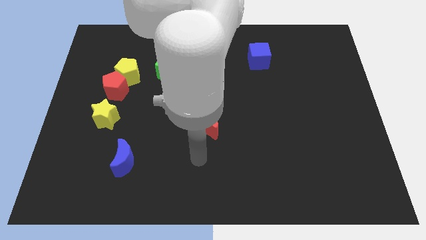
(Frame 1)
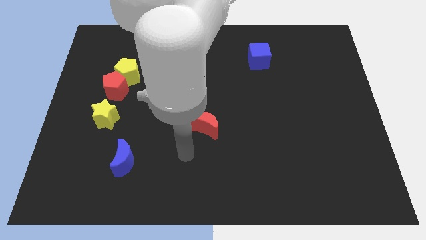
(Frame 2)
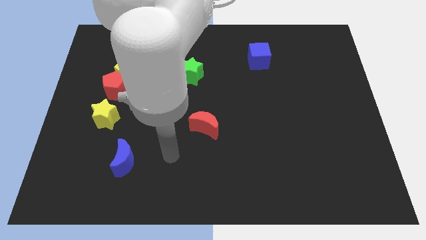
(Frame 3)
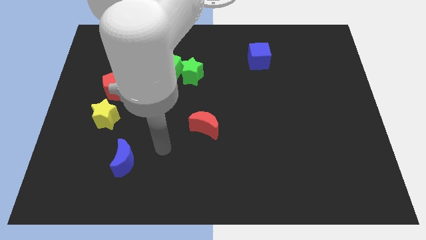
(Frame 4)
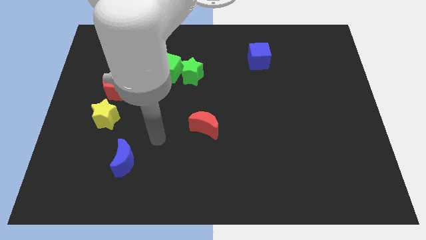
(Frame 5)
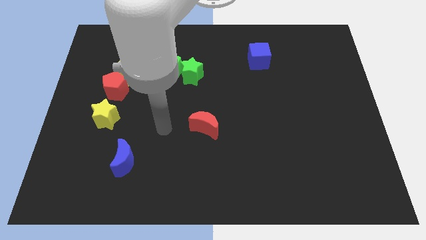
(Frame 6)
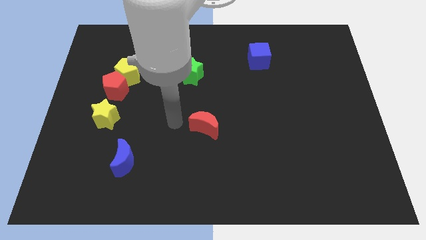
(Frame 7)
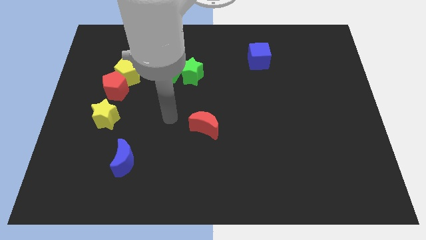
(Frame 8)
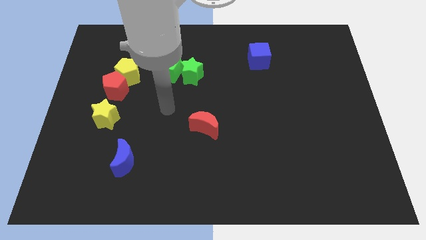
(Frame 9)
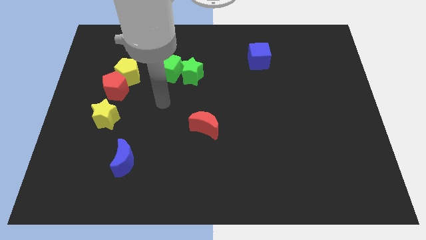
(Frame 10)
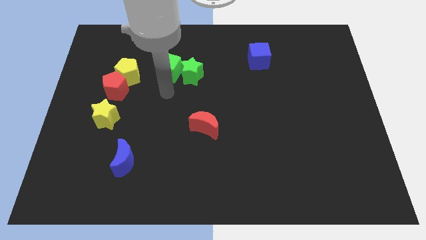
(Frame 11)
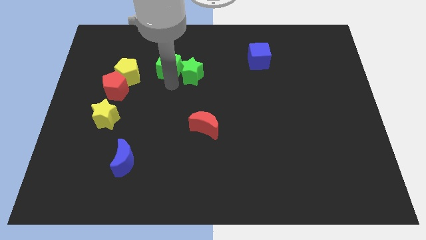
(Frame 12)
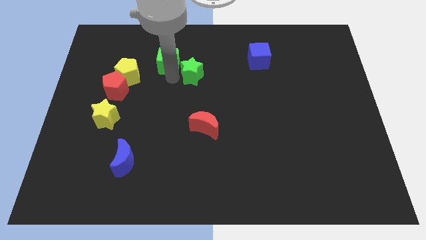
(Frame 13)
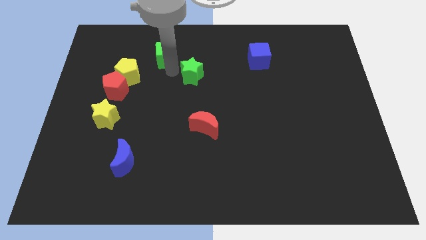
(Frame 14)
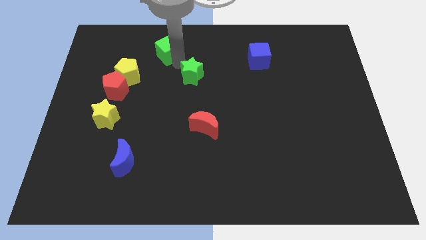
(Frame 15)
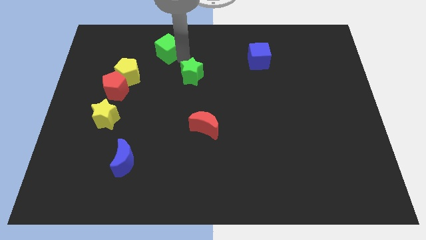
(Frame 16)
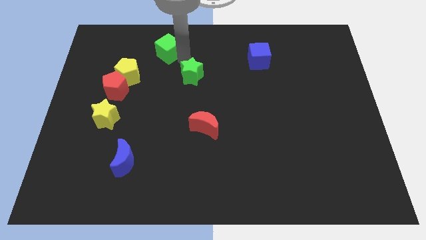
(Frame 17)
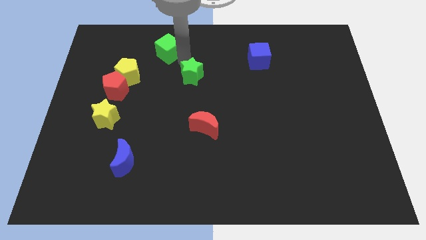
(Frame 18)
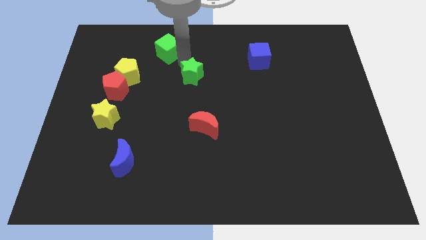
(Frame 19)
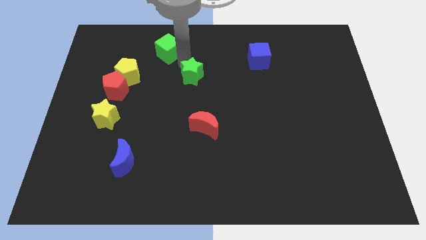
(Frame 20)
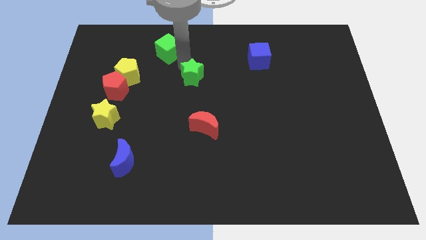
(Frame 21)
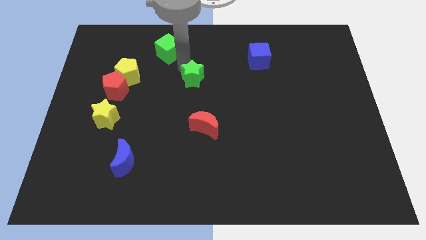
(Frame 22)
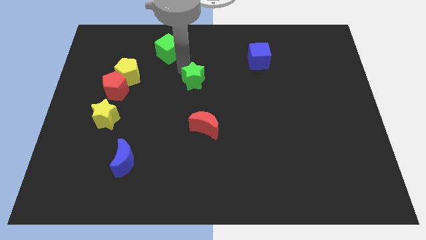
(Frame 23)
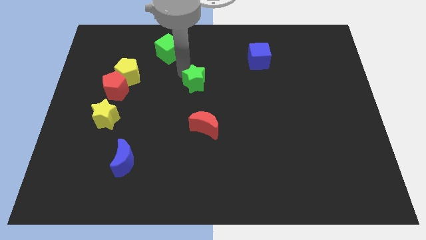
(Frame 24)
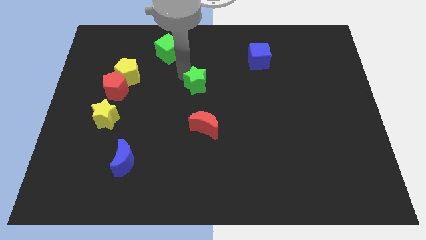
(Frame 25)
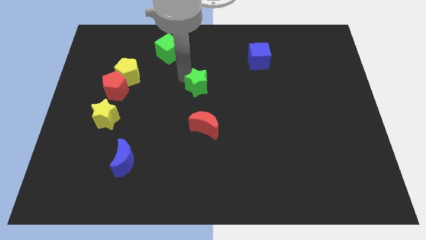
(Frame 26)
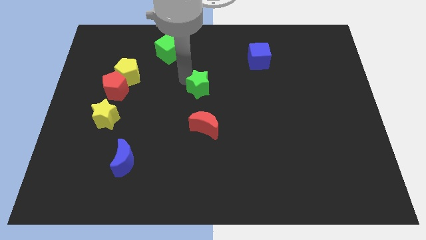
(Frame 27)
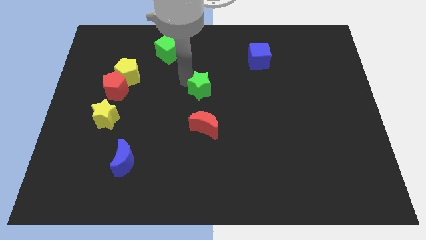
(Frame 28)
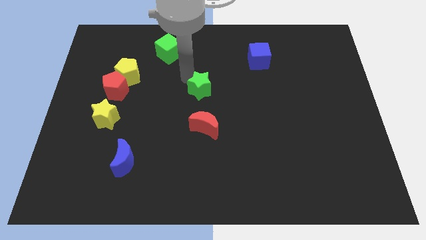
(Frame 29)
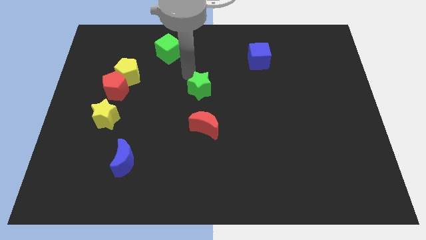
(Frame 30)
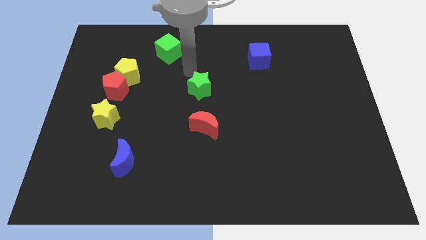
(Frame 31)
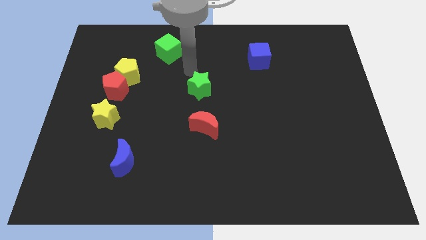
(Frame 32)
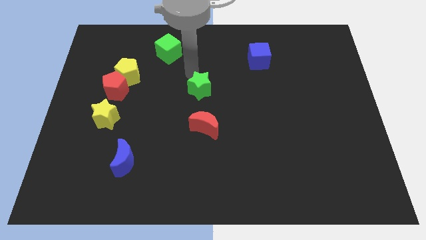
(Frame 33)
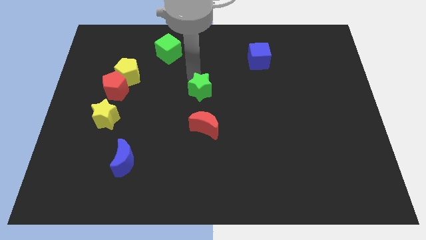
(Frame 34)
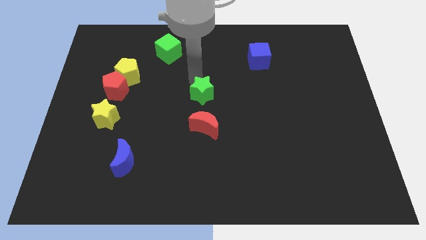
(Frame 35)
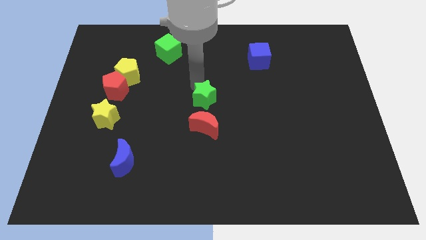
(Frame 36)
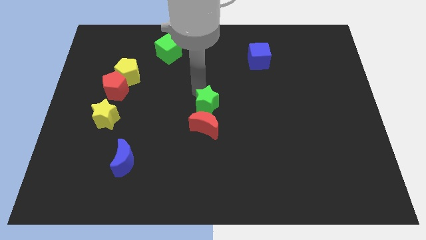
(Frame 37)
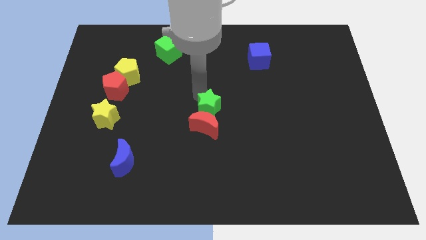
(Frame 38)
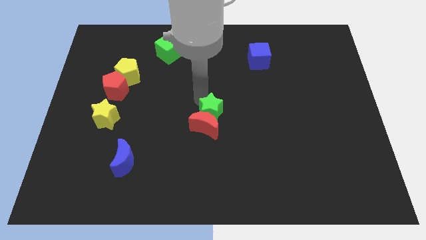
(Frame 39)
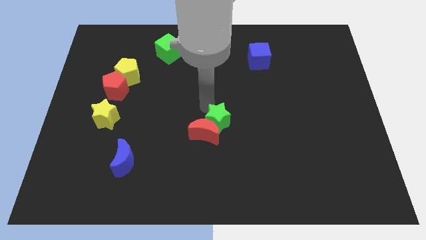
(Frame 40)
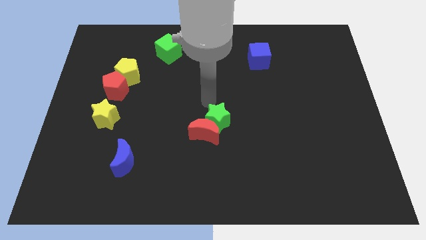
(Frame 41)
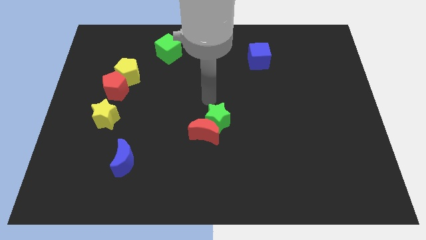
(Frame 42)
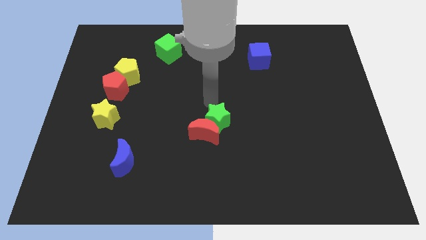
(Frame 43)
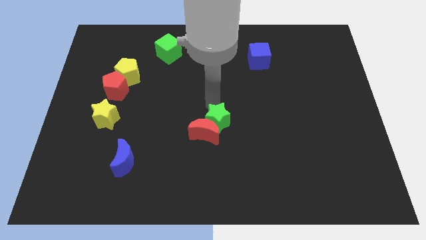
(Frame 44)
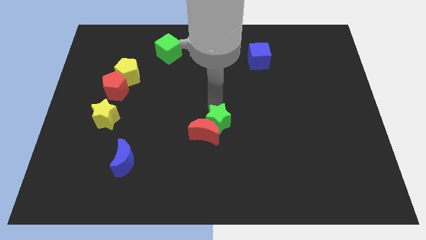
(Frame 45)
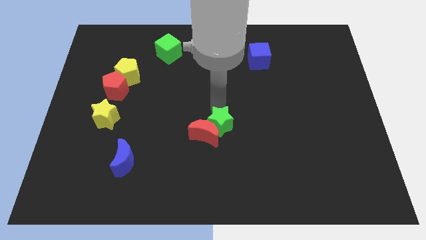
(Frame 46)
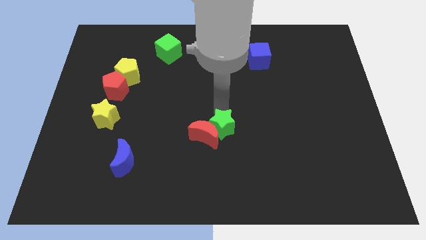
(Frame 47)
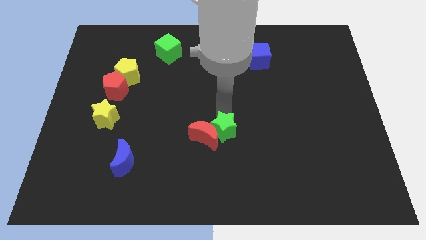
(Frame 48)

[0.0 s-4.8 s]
slide the green star to the bottom right side of the red moon

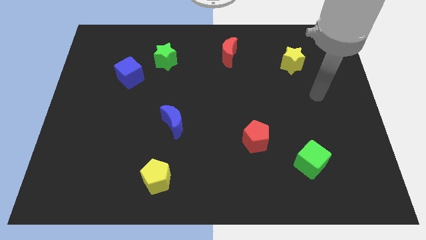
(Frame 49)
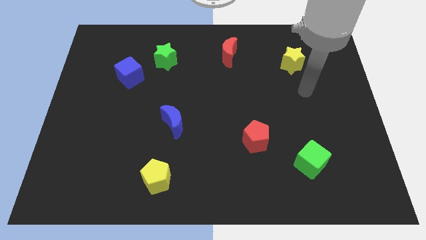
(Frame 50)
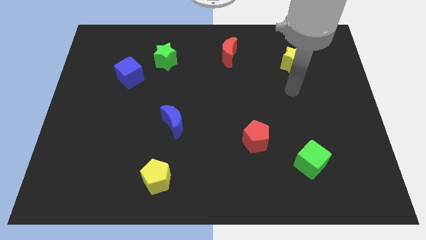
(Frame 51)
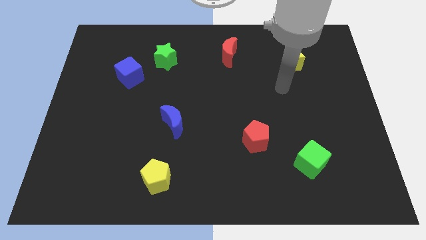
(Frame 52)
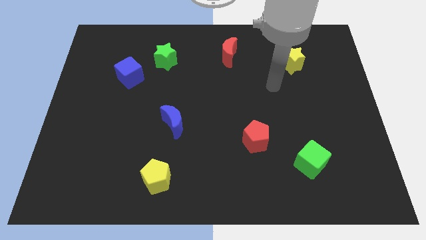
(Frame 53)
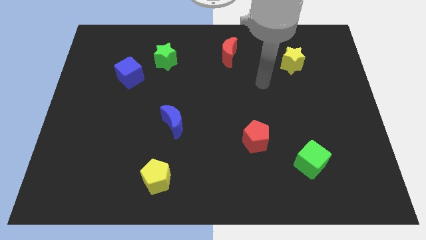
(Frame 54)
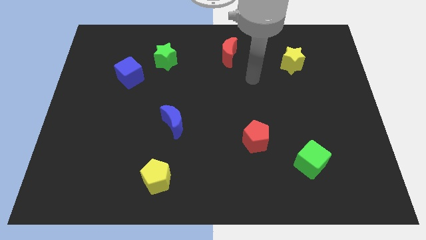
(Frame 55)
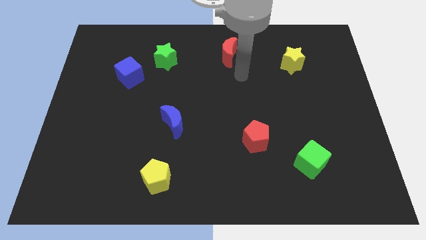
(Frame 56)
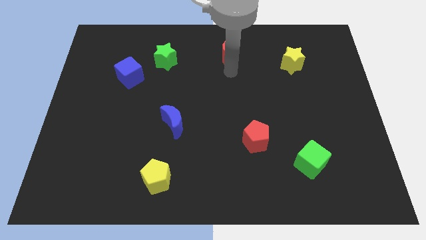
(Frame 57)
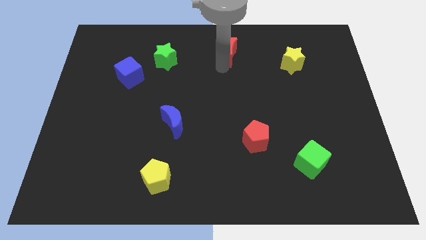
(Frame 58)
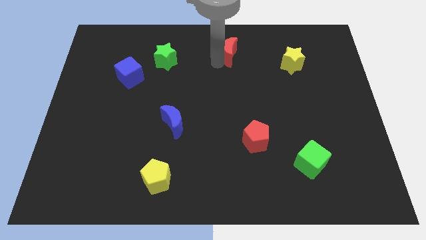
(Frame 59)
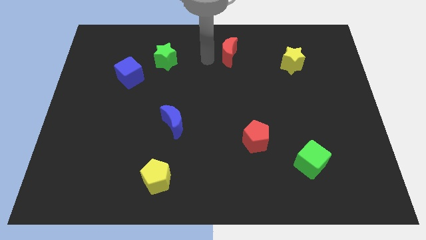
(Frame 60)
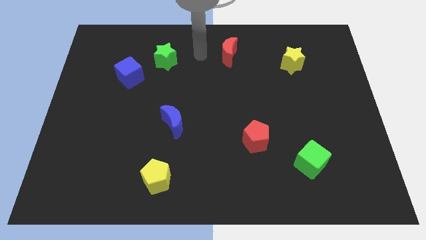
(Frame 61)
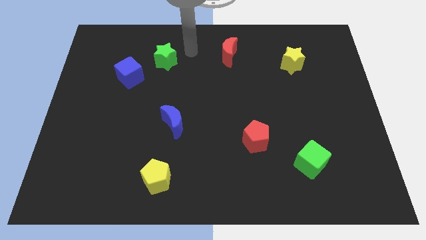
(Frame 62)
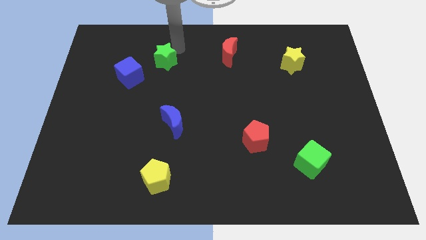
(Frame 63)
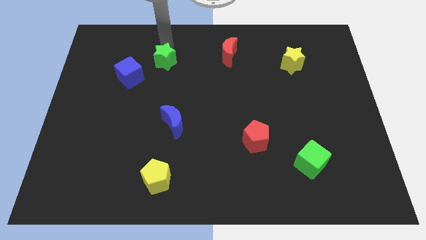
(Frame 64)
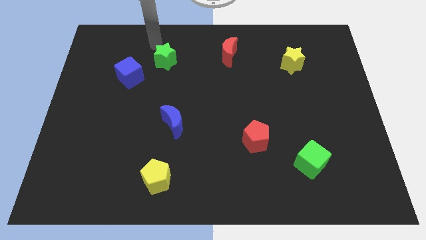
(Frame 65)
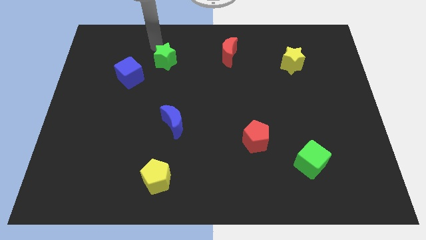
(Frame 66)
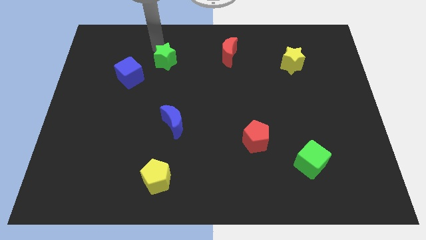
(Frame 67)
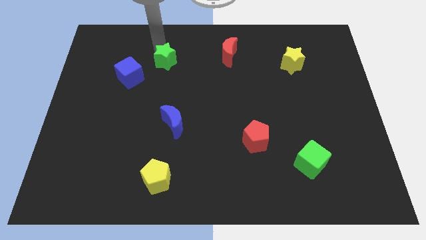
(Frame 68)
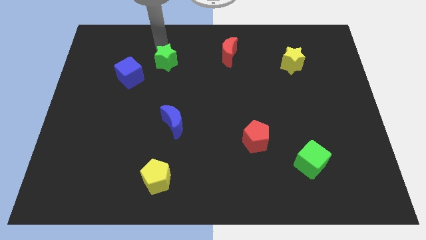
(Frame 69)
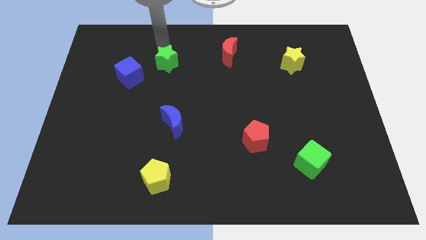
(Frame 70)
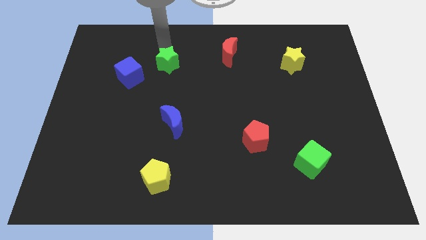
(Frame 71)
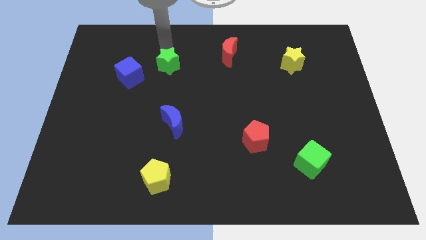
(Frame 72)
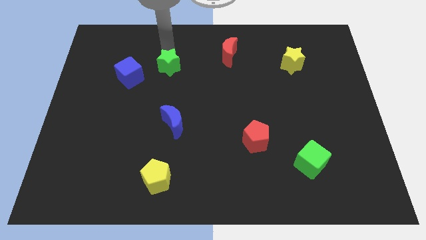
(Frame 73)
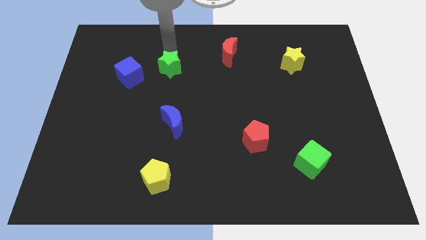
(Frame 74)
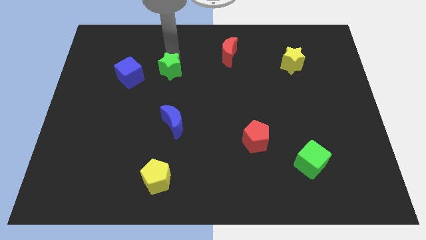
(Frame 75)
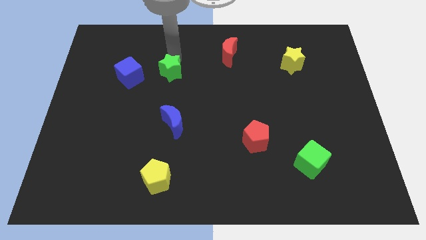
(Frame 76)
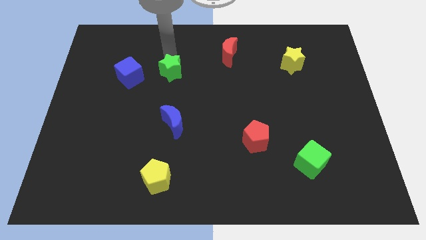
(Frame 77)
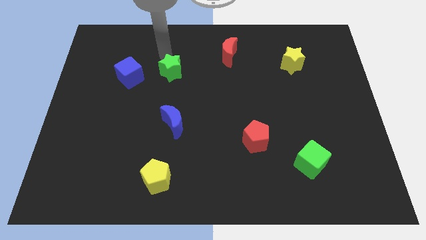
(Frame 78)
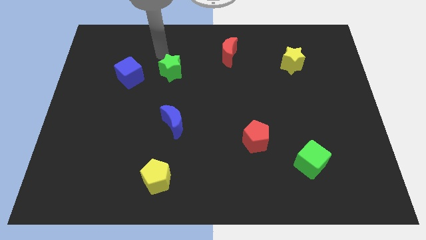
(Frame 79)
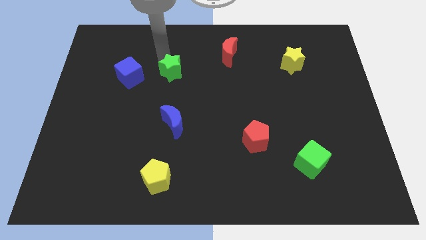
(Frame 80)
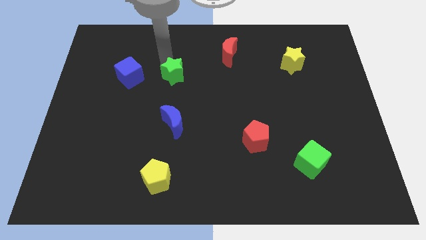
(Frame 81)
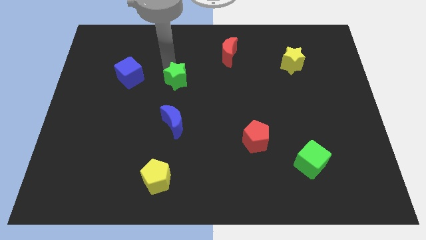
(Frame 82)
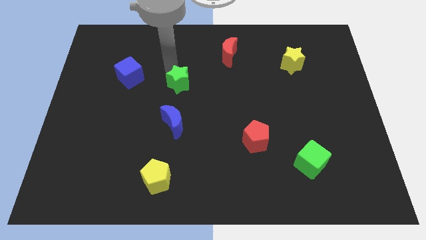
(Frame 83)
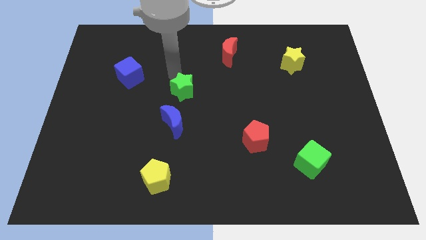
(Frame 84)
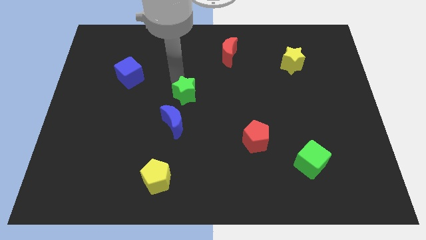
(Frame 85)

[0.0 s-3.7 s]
put the green star diagonally up and to the right of the blue moon
